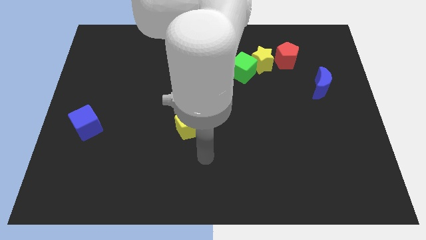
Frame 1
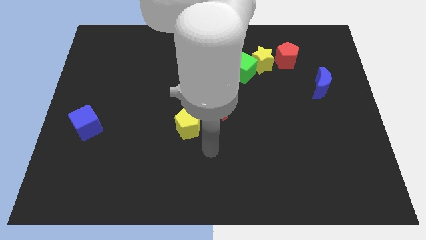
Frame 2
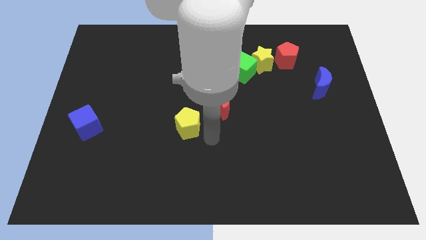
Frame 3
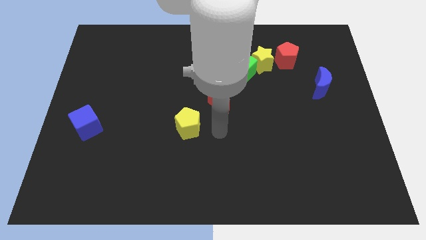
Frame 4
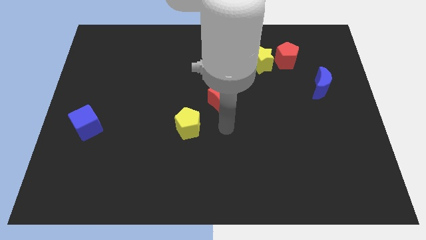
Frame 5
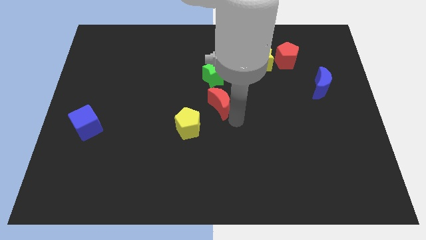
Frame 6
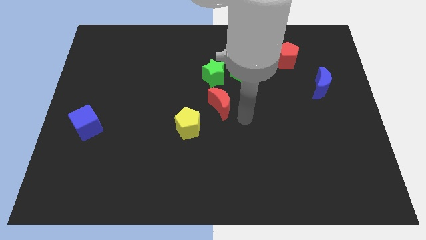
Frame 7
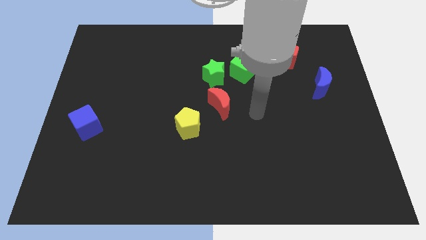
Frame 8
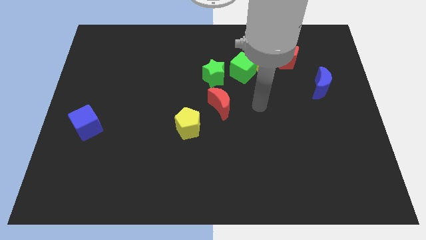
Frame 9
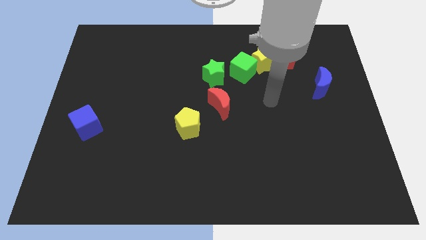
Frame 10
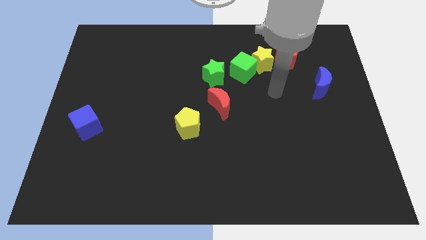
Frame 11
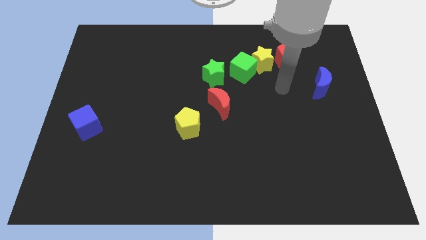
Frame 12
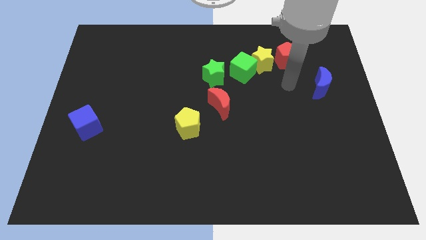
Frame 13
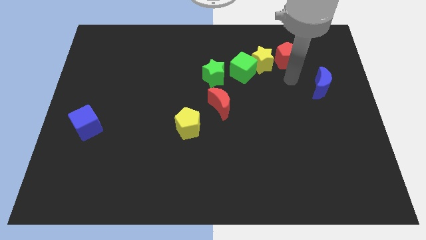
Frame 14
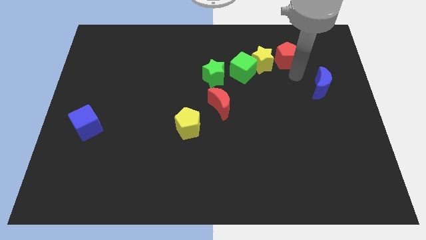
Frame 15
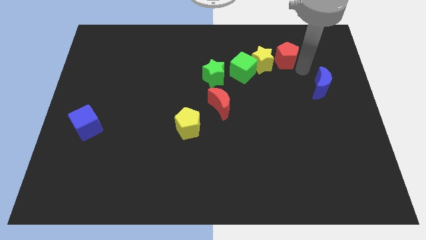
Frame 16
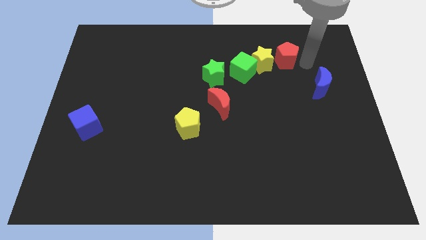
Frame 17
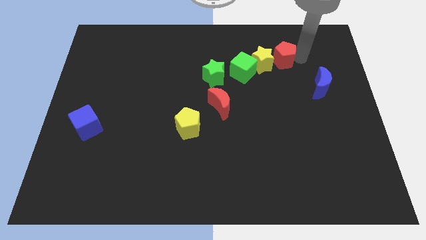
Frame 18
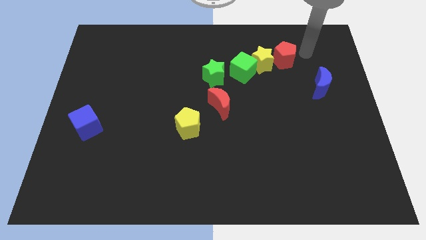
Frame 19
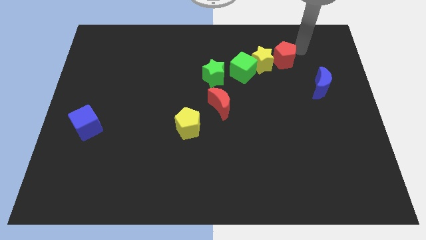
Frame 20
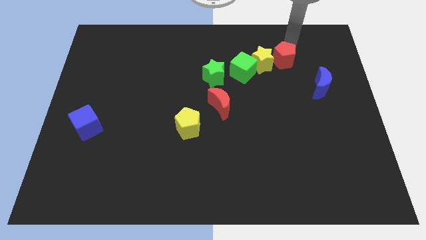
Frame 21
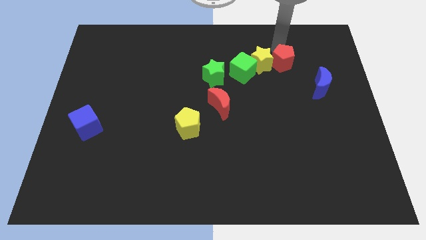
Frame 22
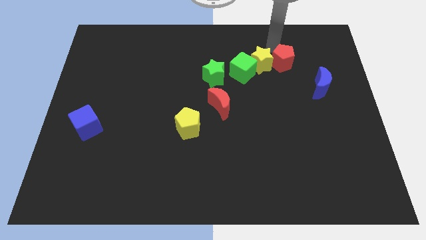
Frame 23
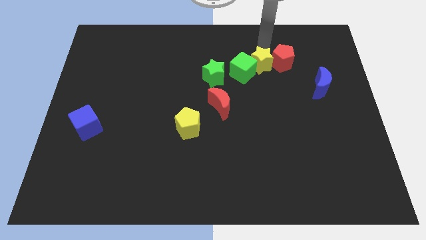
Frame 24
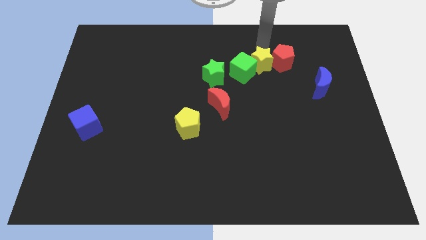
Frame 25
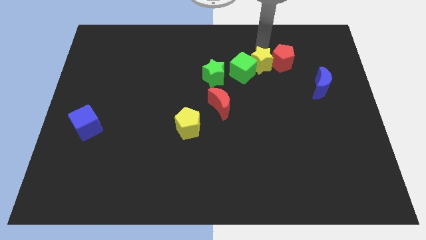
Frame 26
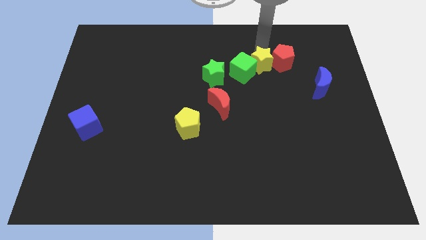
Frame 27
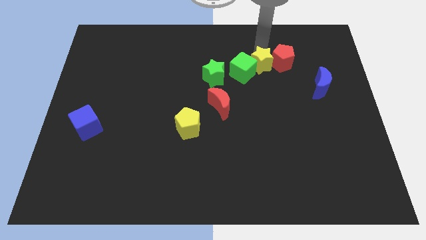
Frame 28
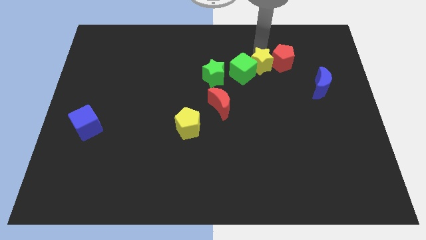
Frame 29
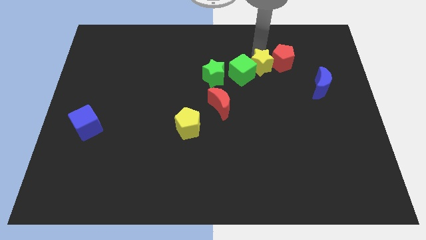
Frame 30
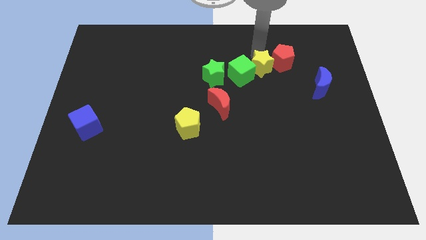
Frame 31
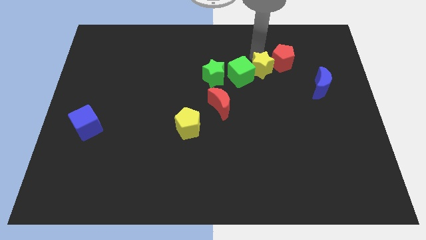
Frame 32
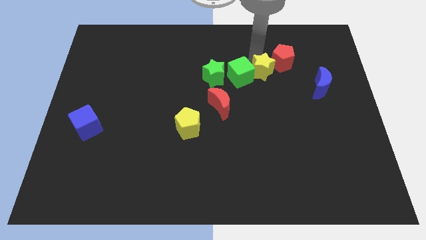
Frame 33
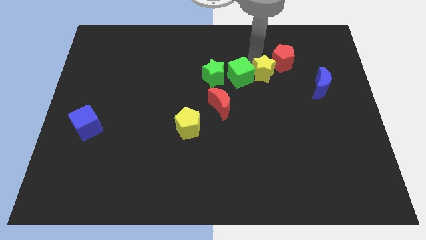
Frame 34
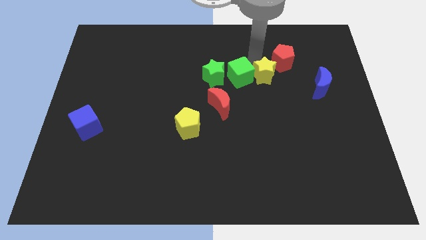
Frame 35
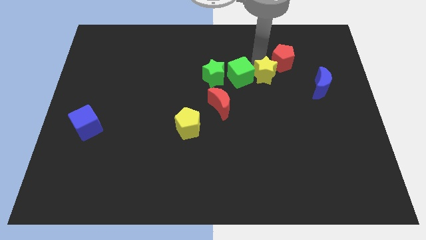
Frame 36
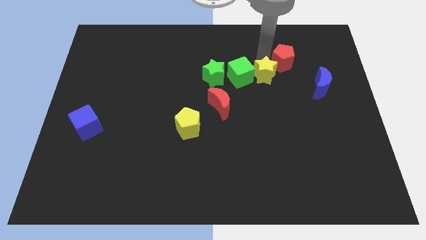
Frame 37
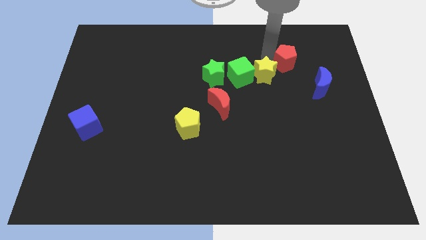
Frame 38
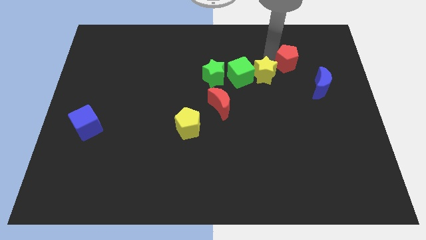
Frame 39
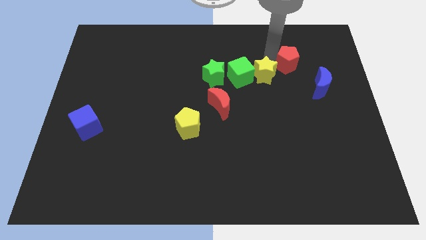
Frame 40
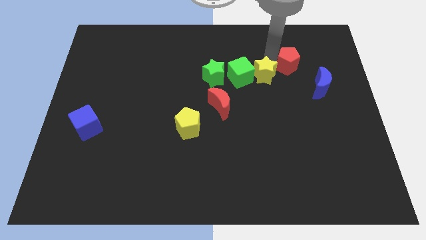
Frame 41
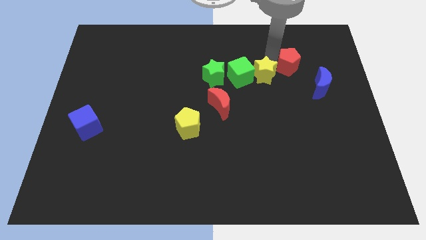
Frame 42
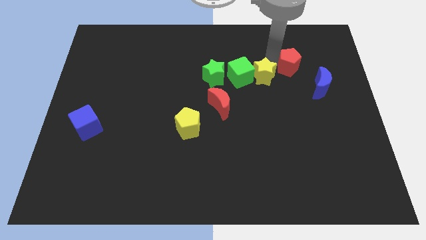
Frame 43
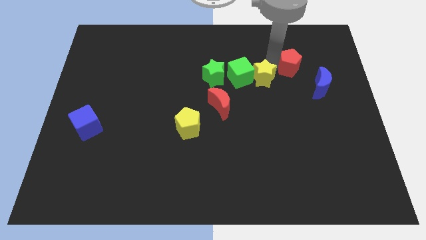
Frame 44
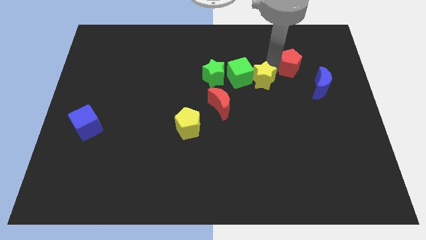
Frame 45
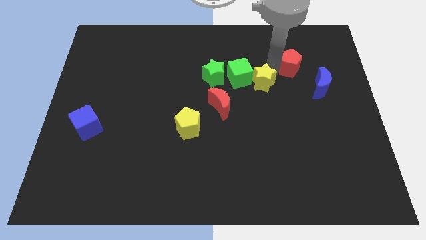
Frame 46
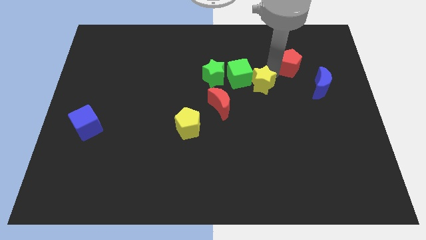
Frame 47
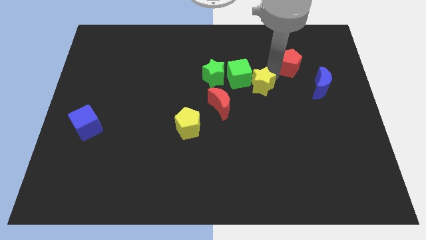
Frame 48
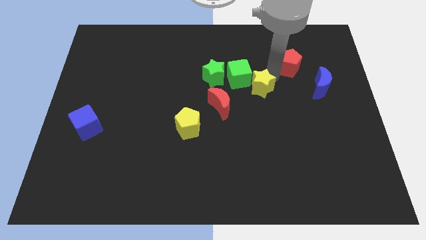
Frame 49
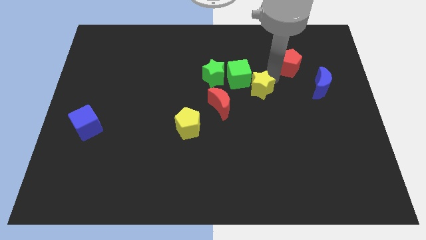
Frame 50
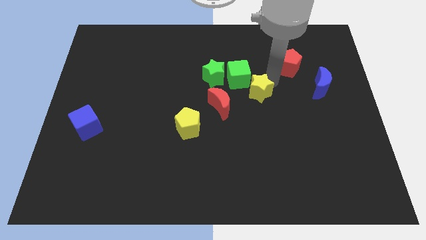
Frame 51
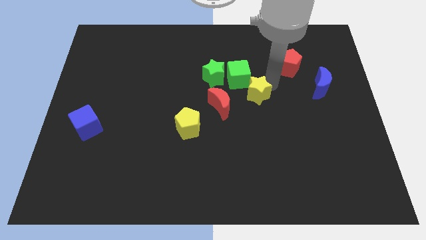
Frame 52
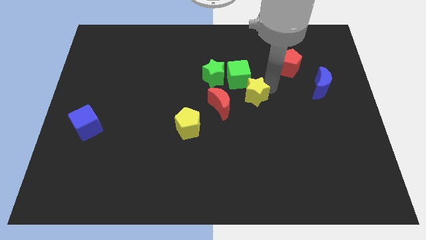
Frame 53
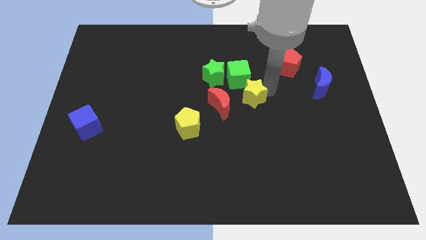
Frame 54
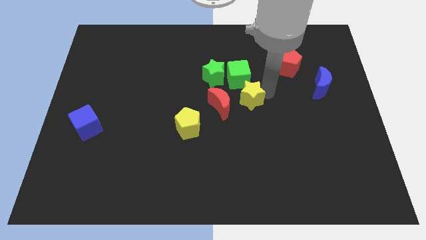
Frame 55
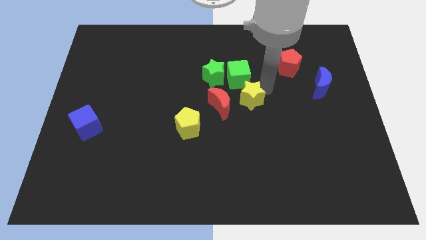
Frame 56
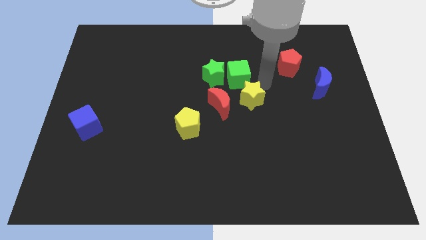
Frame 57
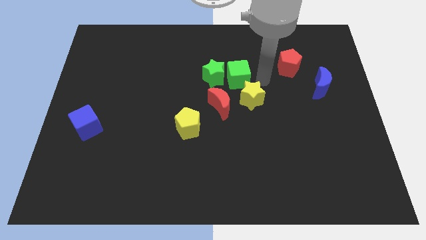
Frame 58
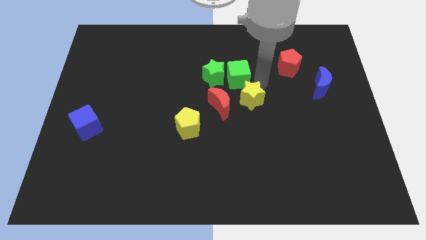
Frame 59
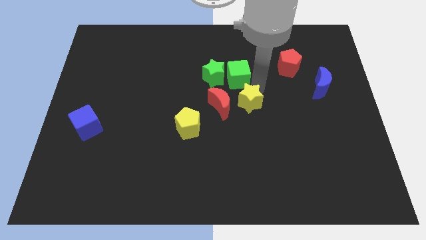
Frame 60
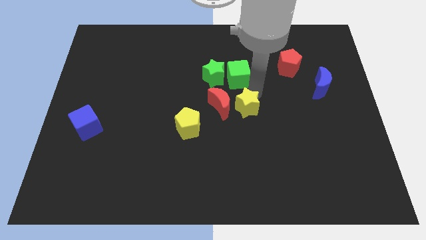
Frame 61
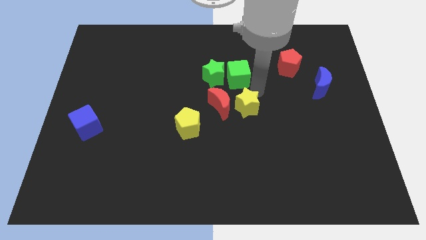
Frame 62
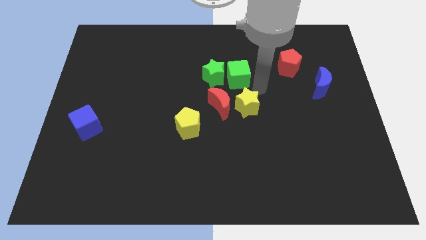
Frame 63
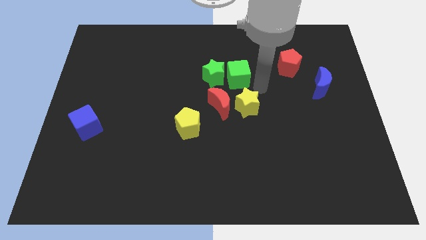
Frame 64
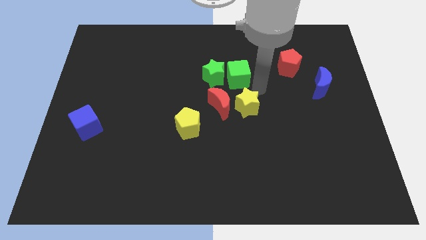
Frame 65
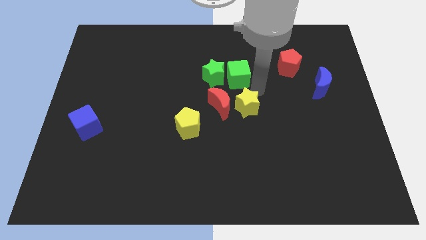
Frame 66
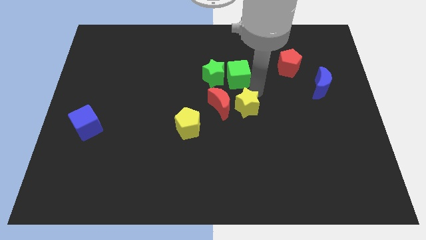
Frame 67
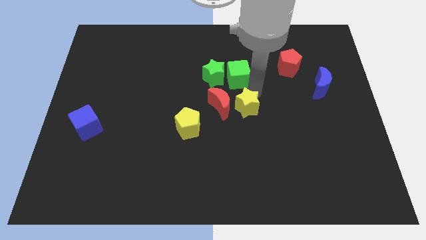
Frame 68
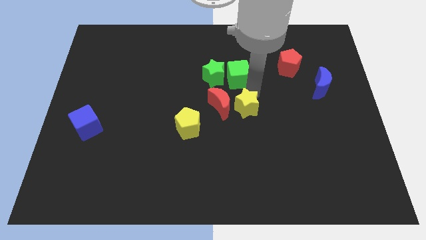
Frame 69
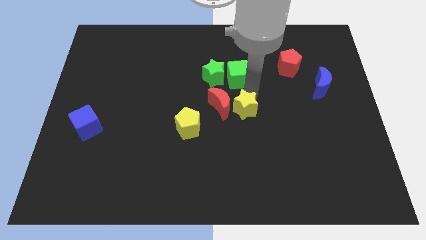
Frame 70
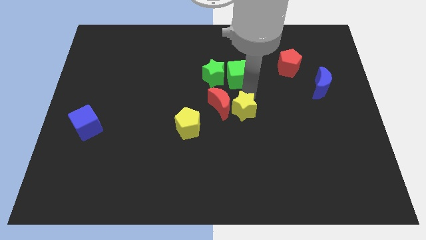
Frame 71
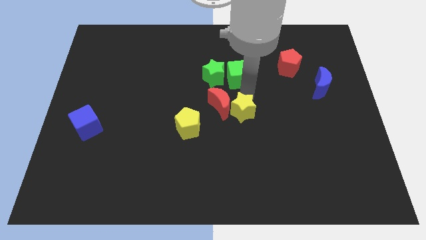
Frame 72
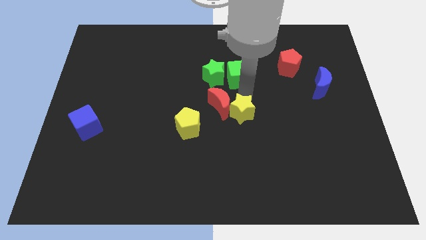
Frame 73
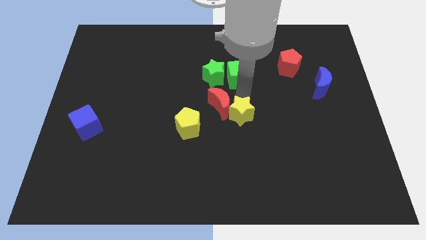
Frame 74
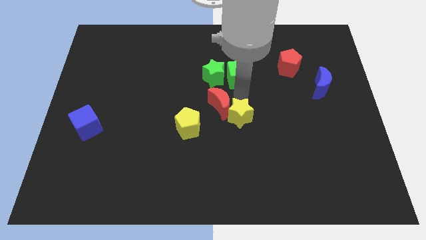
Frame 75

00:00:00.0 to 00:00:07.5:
push the yellow star below the red moon
